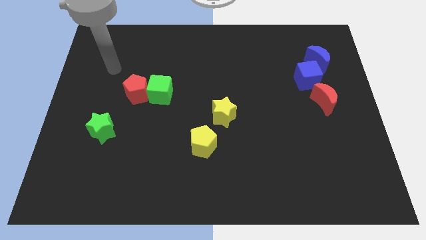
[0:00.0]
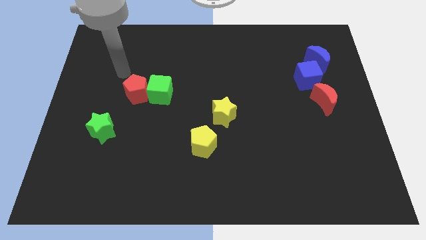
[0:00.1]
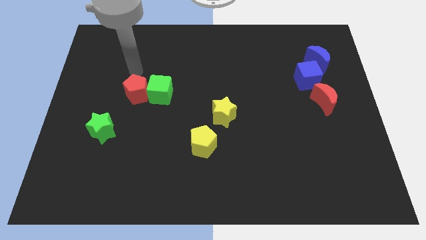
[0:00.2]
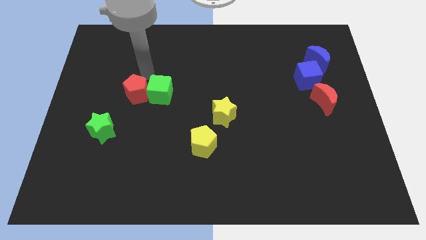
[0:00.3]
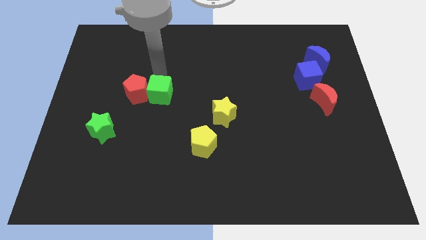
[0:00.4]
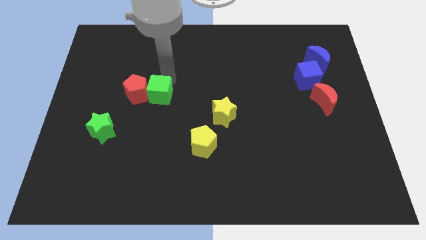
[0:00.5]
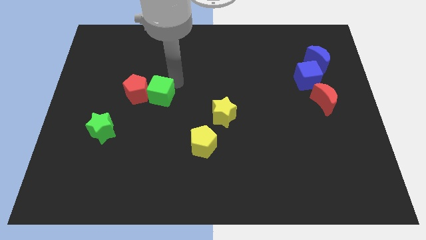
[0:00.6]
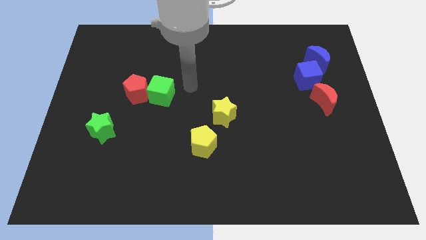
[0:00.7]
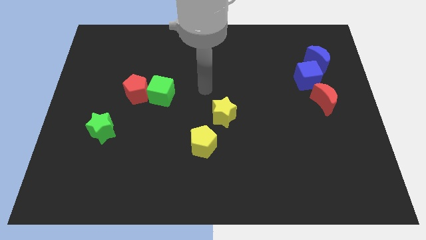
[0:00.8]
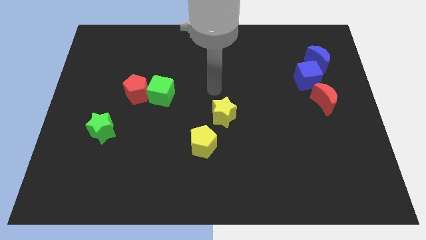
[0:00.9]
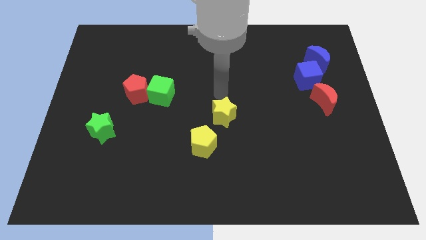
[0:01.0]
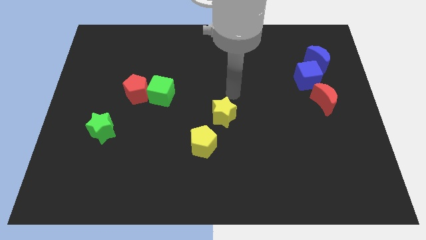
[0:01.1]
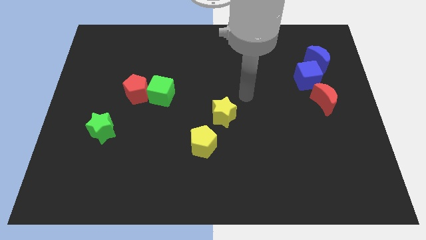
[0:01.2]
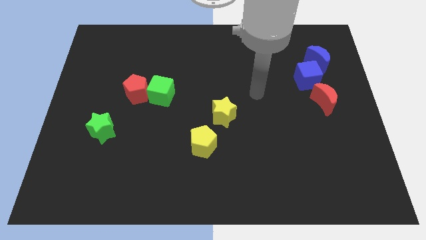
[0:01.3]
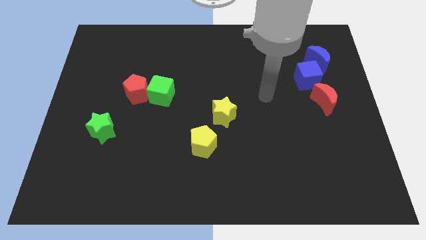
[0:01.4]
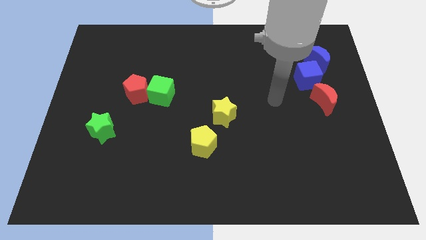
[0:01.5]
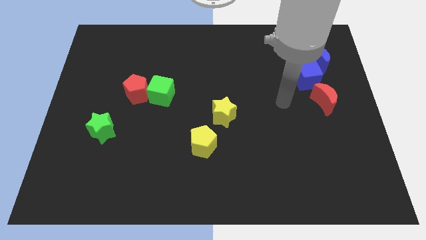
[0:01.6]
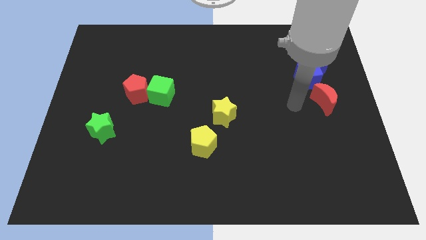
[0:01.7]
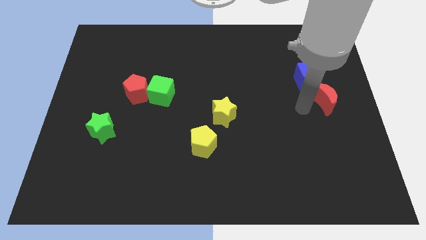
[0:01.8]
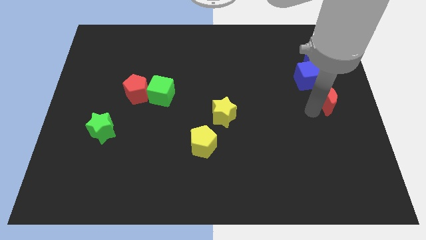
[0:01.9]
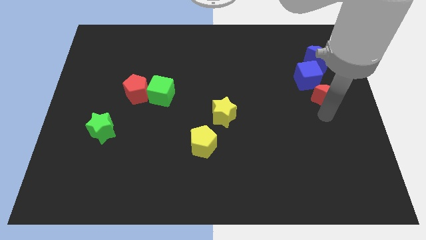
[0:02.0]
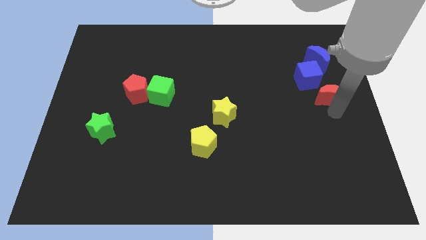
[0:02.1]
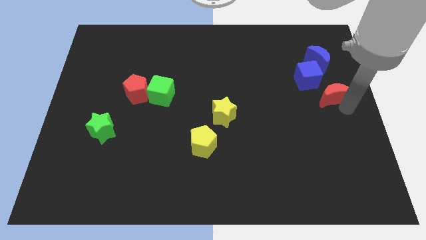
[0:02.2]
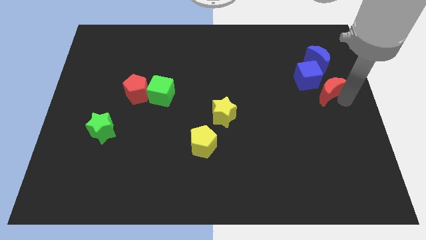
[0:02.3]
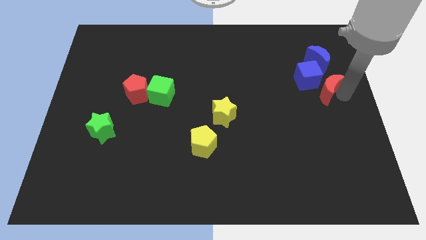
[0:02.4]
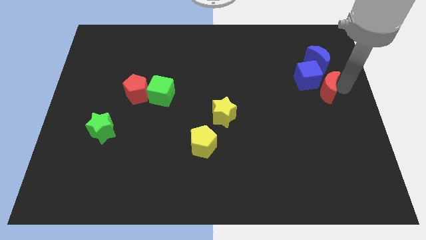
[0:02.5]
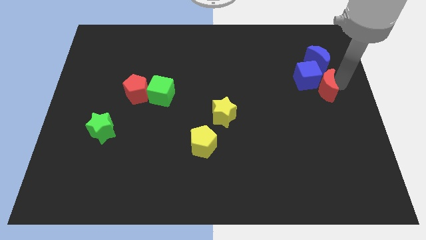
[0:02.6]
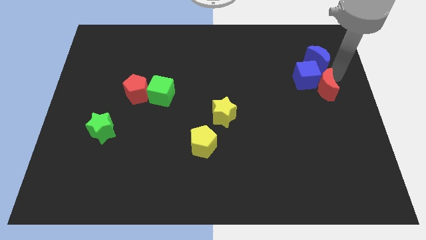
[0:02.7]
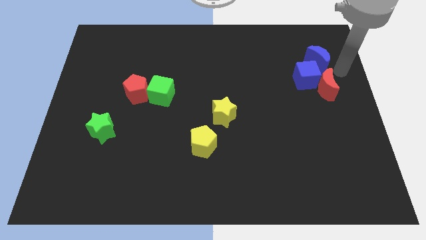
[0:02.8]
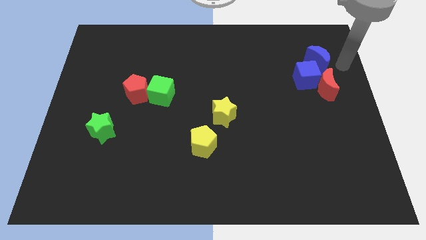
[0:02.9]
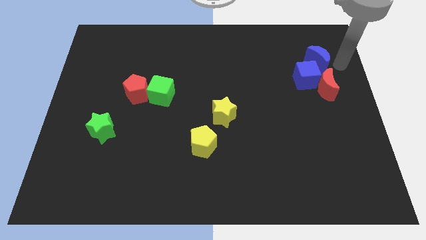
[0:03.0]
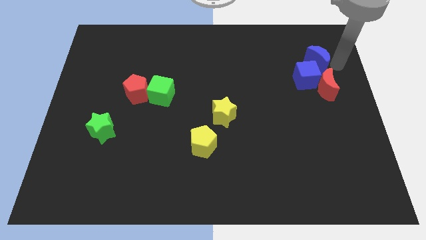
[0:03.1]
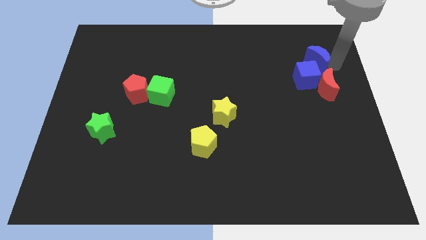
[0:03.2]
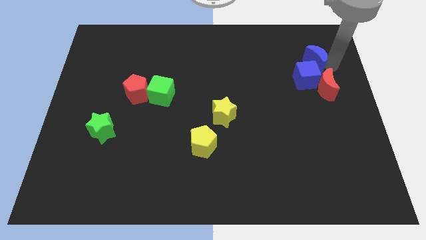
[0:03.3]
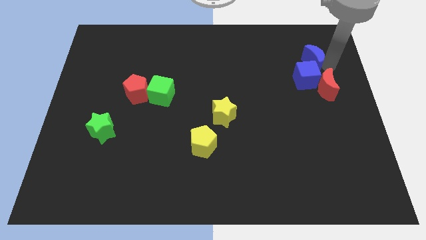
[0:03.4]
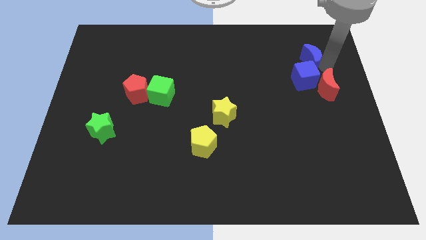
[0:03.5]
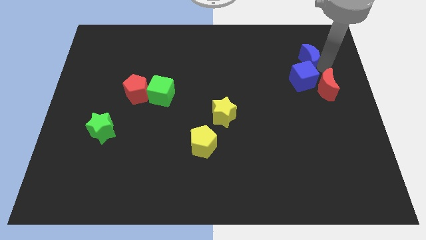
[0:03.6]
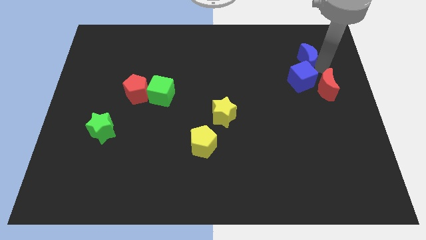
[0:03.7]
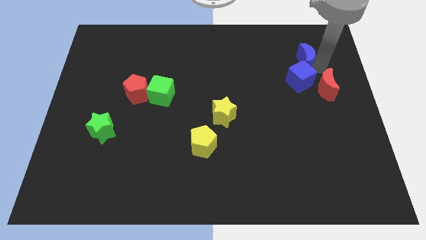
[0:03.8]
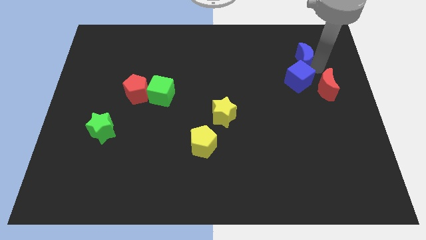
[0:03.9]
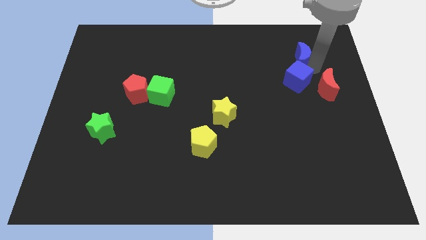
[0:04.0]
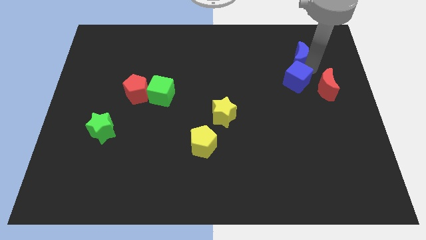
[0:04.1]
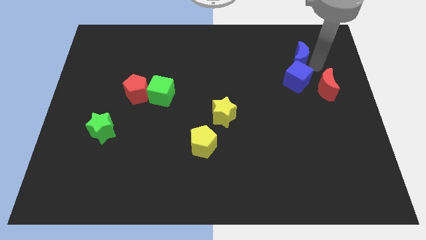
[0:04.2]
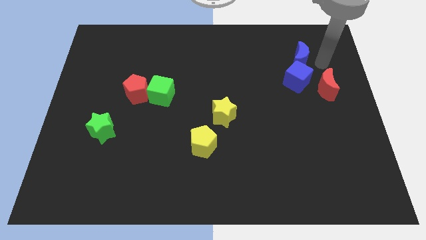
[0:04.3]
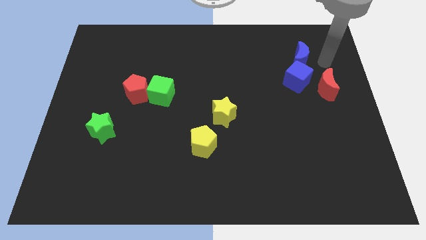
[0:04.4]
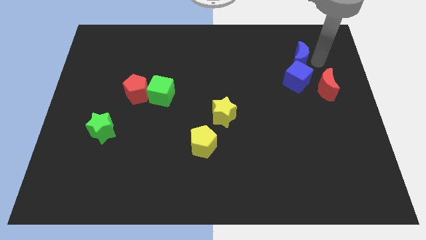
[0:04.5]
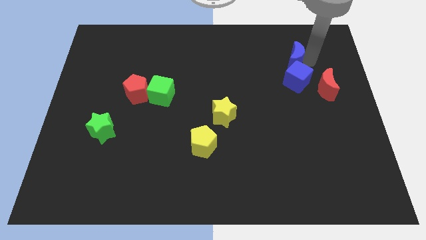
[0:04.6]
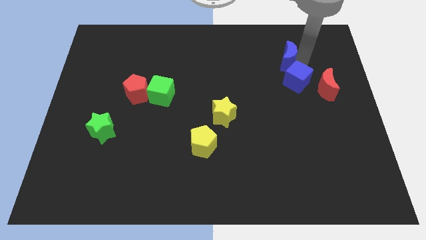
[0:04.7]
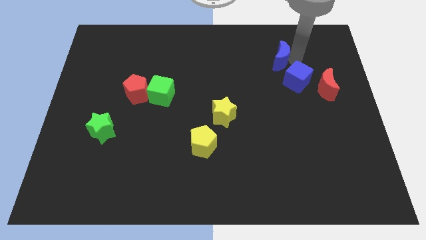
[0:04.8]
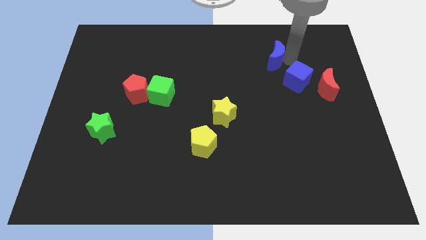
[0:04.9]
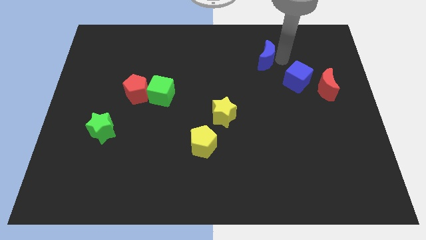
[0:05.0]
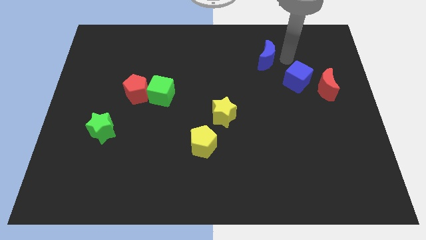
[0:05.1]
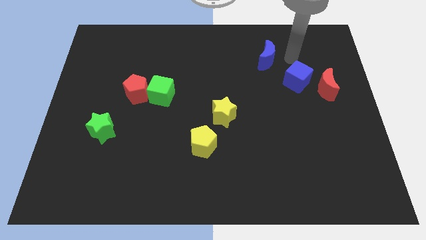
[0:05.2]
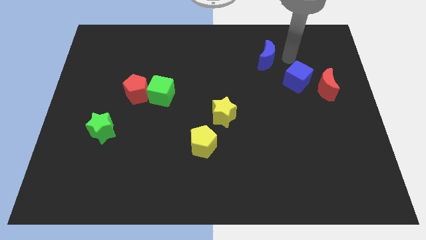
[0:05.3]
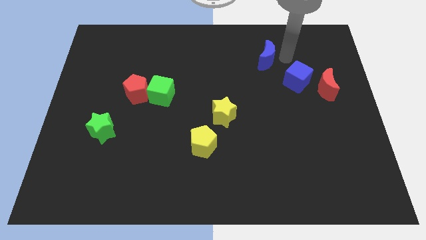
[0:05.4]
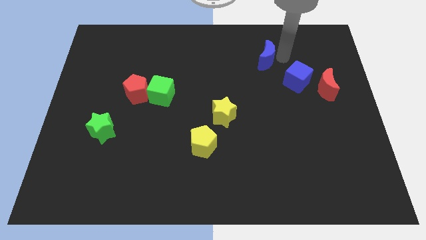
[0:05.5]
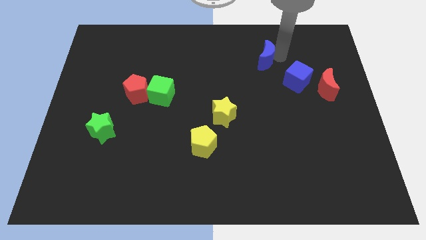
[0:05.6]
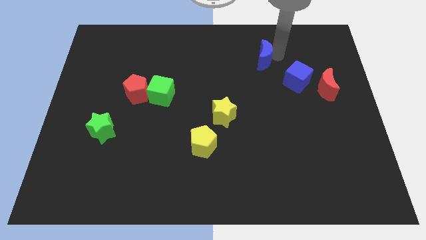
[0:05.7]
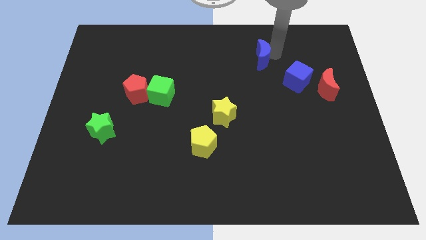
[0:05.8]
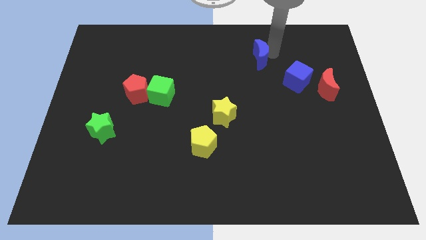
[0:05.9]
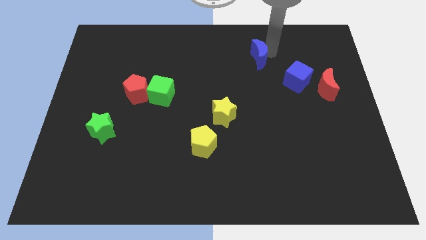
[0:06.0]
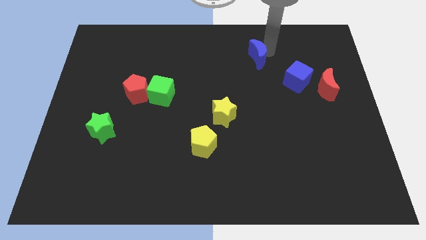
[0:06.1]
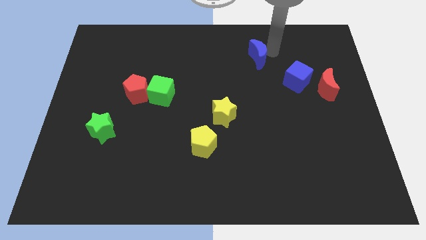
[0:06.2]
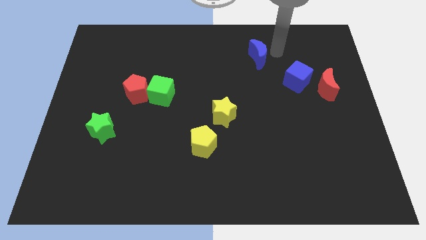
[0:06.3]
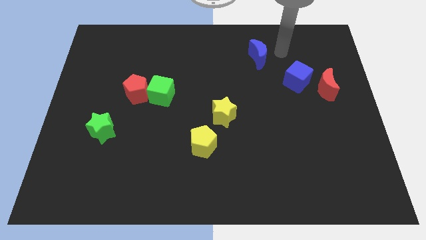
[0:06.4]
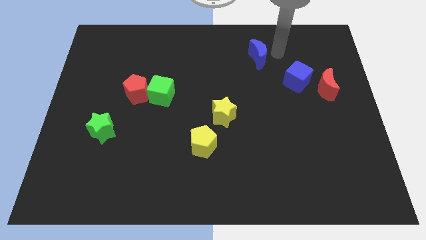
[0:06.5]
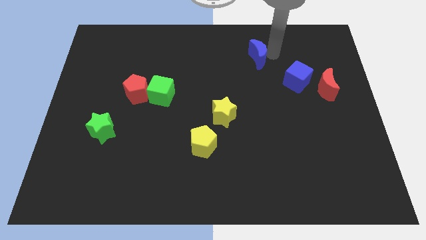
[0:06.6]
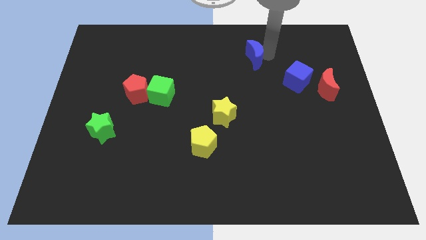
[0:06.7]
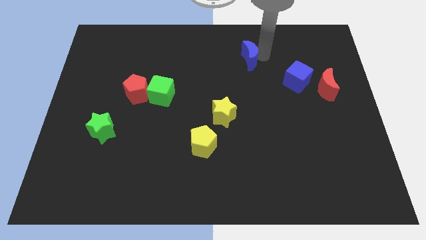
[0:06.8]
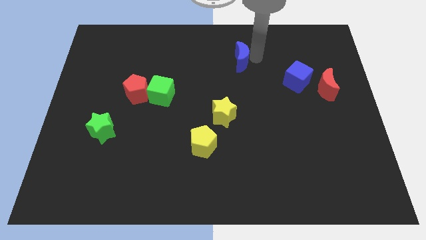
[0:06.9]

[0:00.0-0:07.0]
slide the blue moon to the left

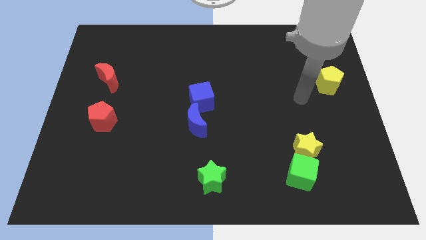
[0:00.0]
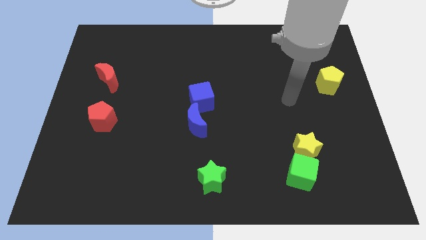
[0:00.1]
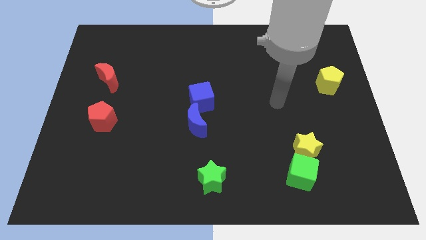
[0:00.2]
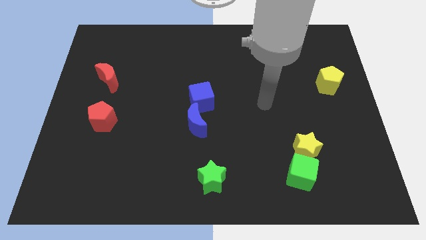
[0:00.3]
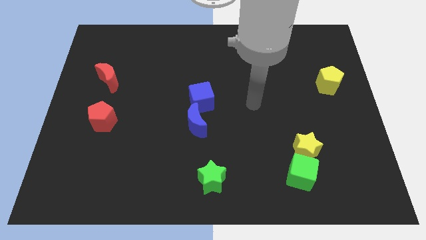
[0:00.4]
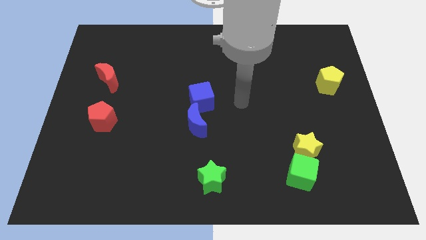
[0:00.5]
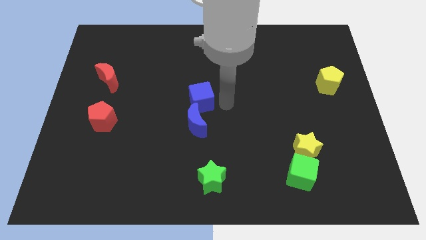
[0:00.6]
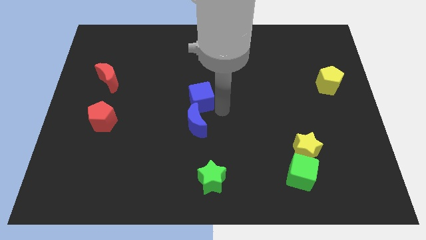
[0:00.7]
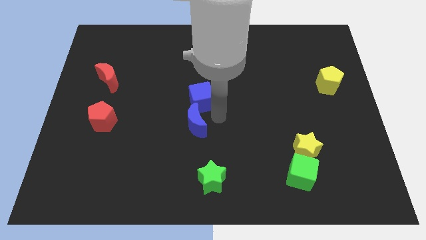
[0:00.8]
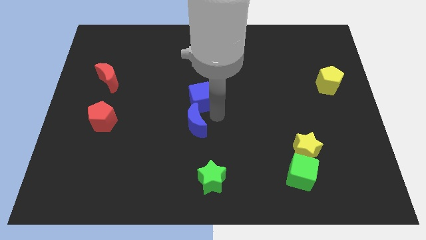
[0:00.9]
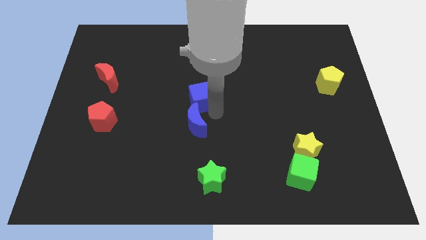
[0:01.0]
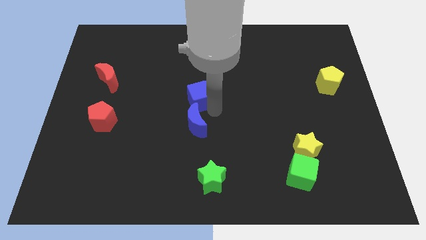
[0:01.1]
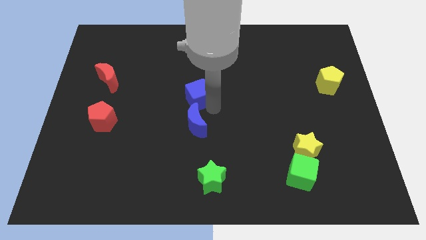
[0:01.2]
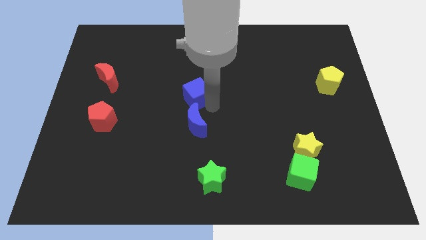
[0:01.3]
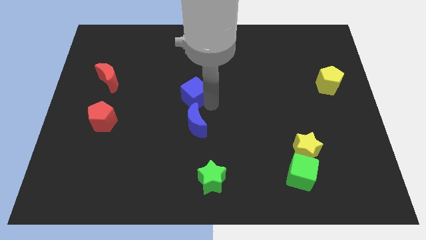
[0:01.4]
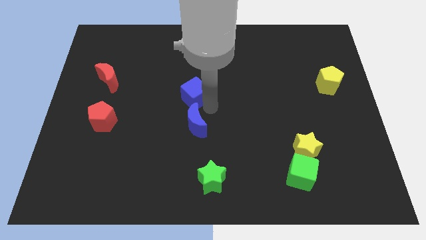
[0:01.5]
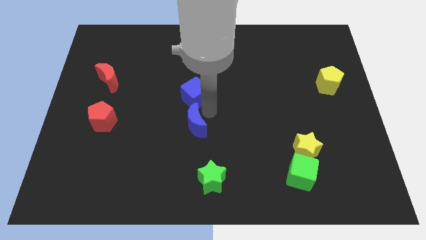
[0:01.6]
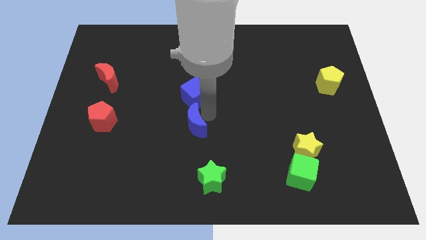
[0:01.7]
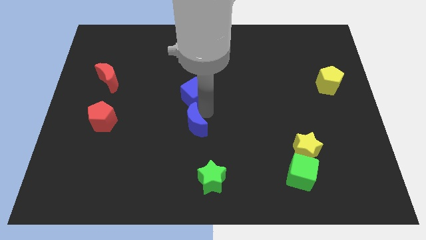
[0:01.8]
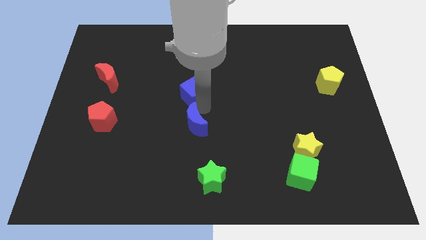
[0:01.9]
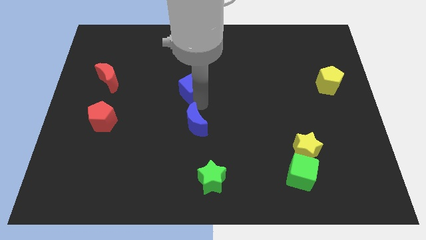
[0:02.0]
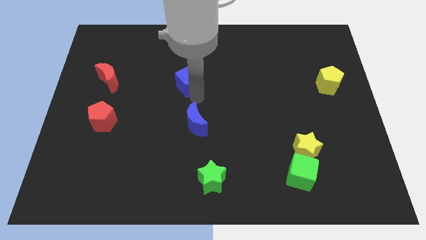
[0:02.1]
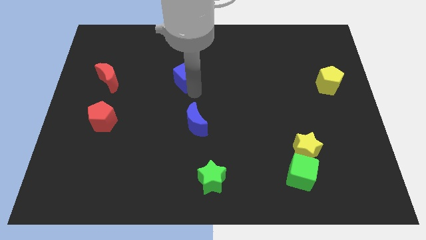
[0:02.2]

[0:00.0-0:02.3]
slide the blue cube diagonally upwards and to the left a little bit
